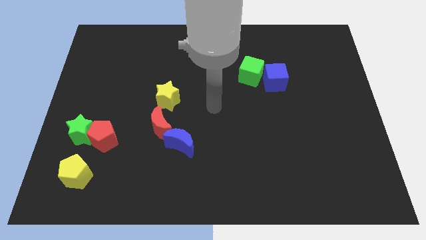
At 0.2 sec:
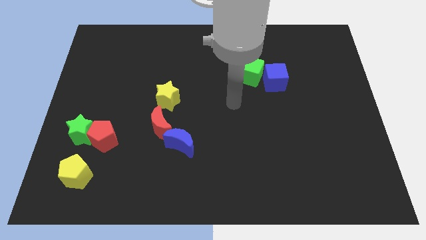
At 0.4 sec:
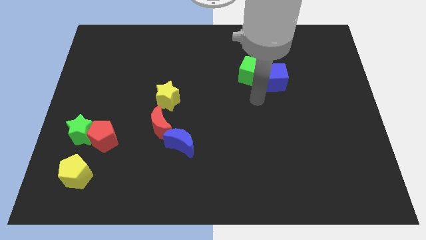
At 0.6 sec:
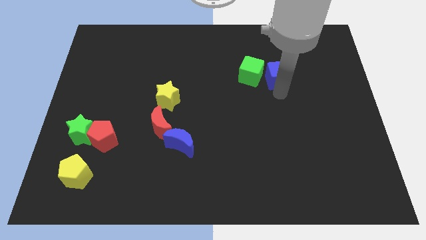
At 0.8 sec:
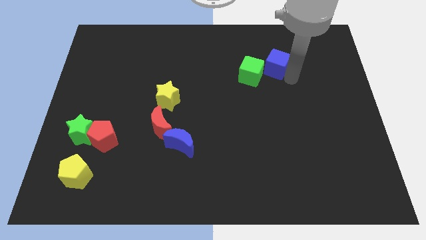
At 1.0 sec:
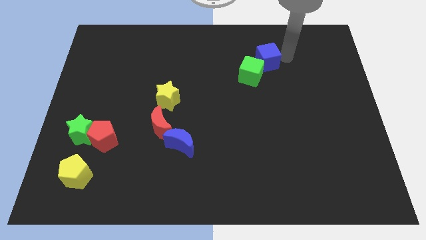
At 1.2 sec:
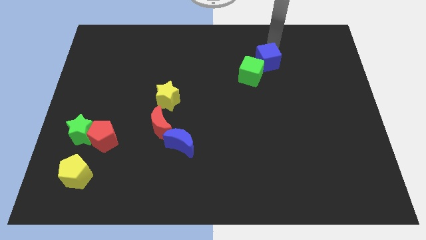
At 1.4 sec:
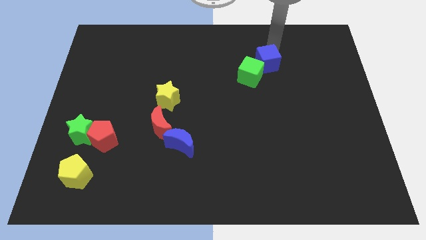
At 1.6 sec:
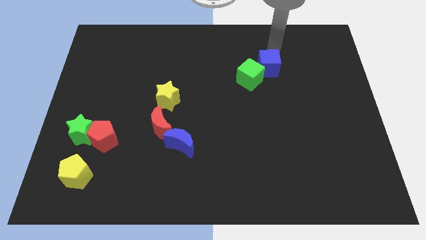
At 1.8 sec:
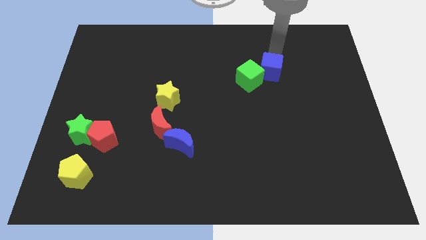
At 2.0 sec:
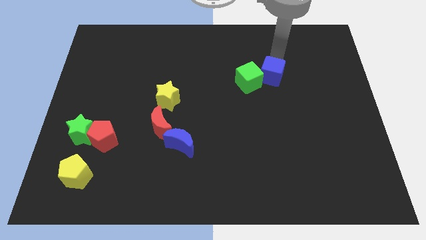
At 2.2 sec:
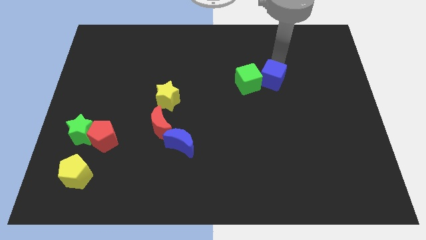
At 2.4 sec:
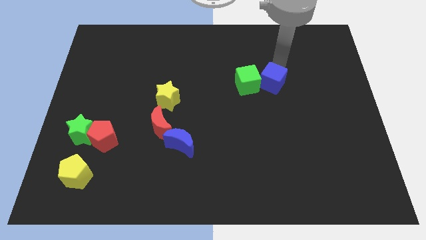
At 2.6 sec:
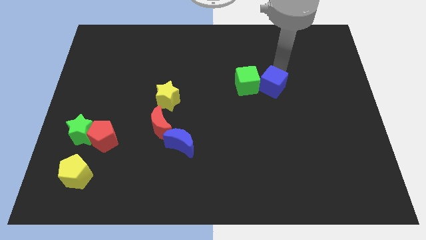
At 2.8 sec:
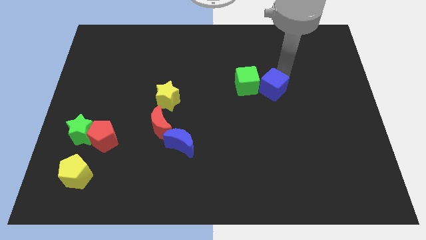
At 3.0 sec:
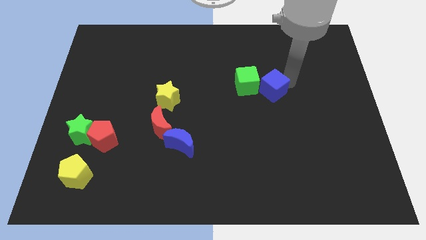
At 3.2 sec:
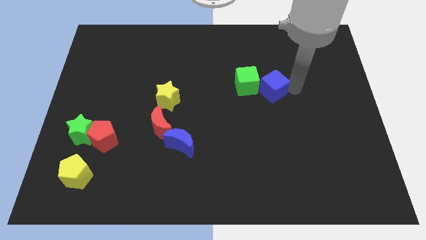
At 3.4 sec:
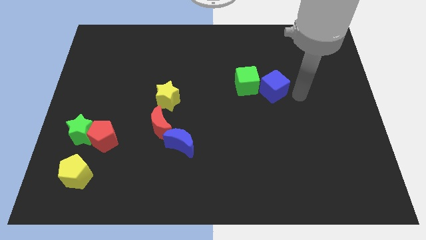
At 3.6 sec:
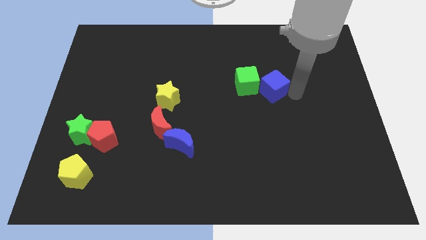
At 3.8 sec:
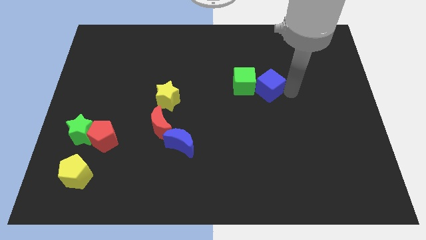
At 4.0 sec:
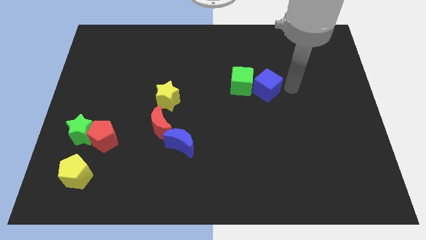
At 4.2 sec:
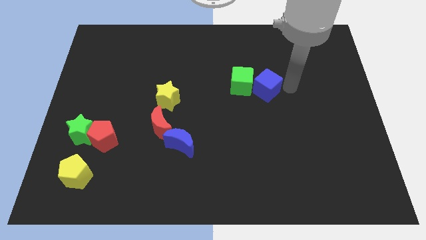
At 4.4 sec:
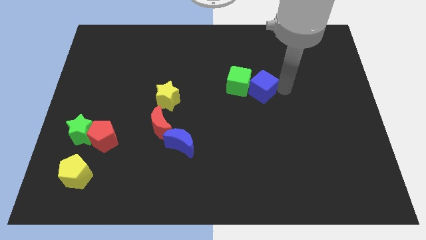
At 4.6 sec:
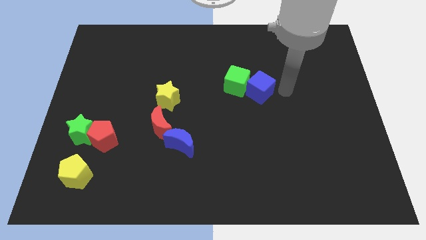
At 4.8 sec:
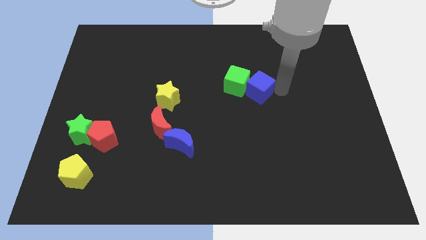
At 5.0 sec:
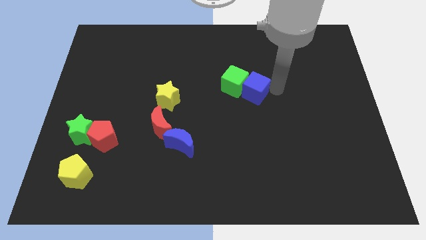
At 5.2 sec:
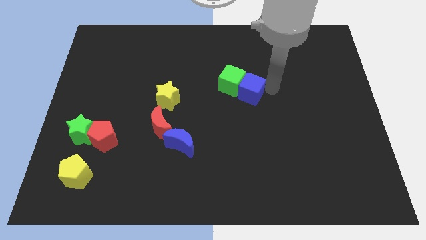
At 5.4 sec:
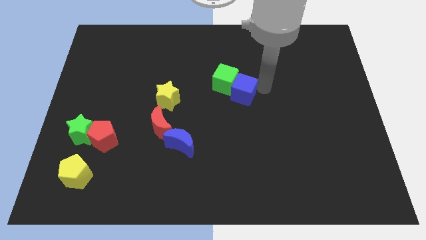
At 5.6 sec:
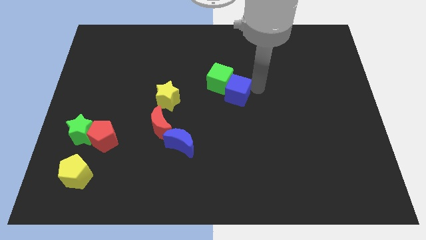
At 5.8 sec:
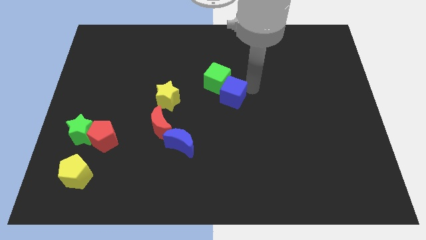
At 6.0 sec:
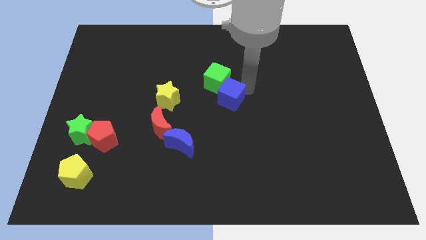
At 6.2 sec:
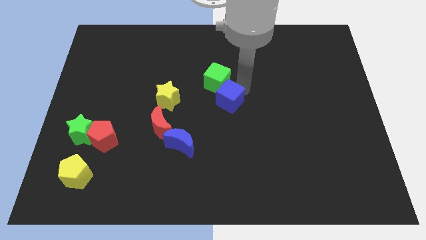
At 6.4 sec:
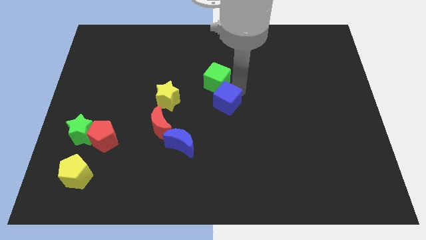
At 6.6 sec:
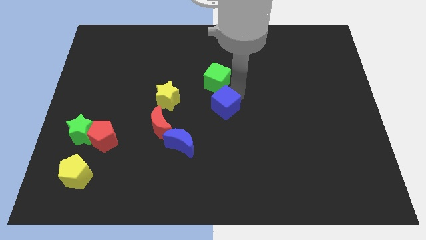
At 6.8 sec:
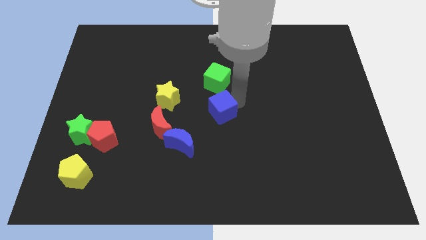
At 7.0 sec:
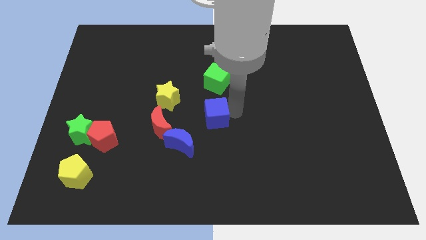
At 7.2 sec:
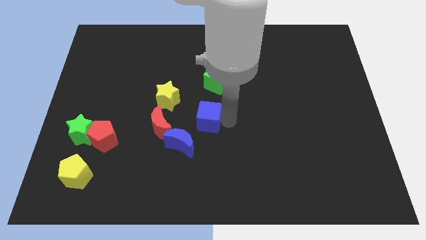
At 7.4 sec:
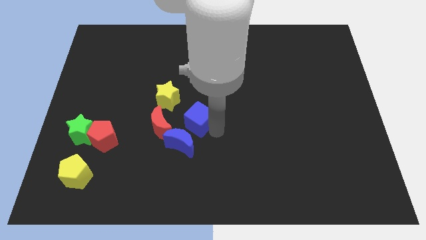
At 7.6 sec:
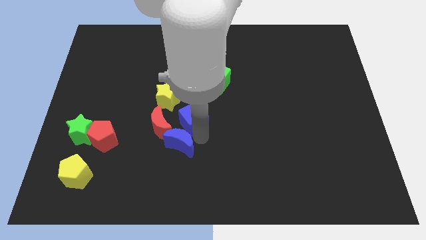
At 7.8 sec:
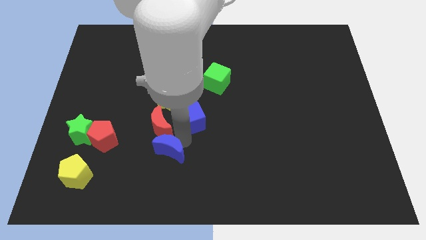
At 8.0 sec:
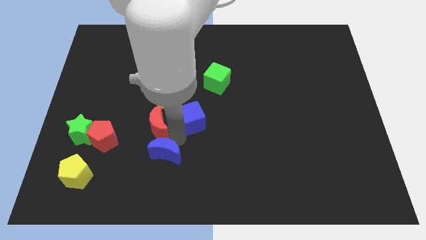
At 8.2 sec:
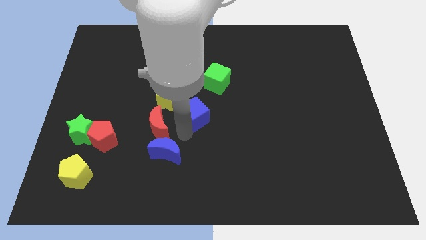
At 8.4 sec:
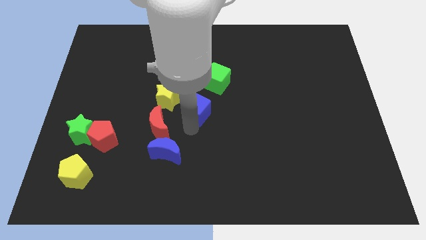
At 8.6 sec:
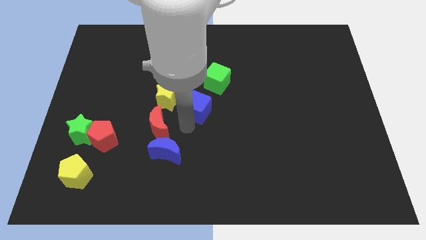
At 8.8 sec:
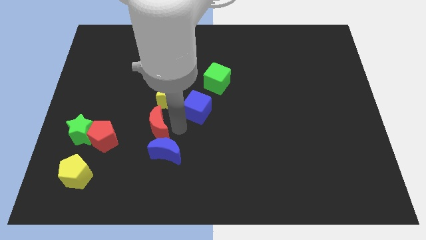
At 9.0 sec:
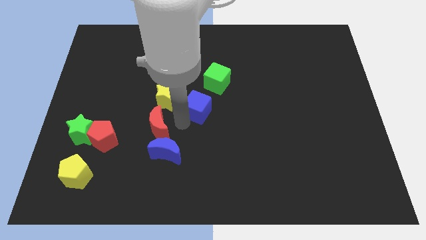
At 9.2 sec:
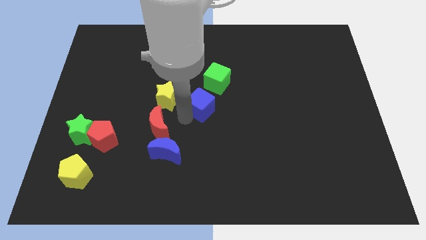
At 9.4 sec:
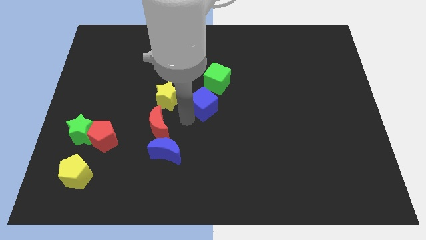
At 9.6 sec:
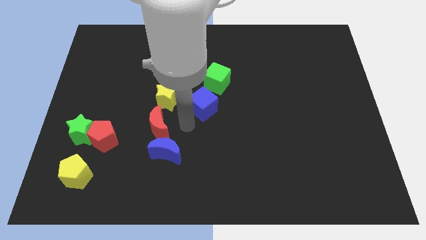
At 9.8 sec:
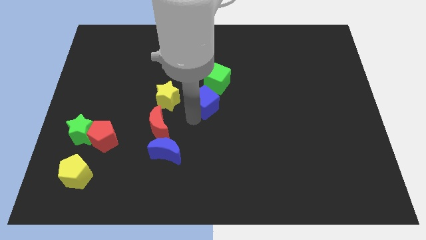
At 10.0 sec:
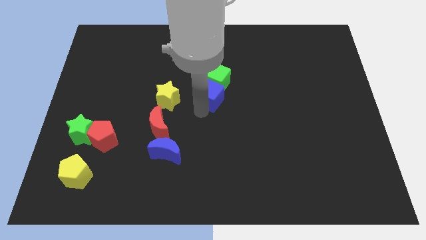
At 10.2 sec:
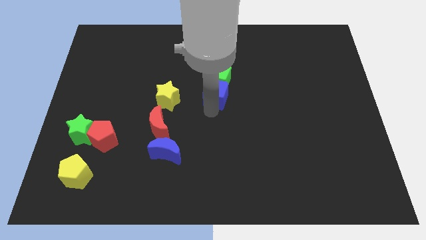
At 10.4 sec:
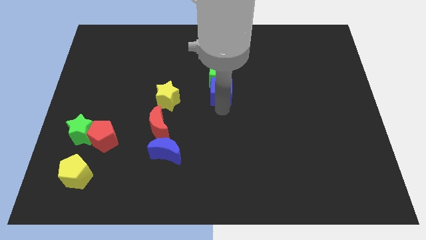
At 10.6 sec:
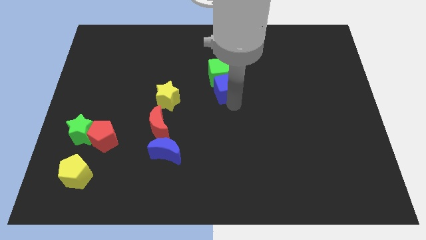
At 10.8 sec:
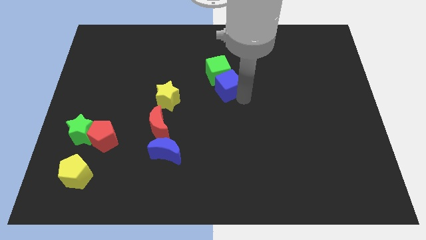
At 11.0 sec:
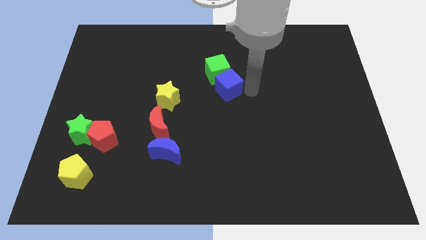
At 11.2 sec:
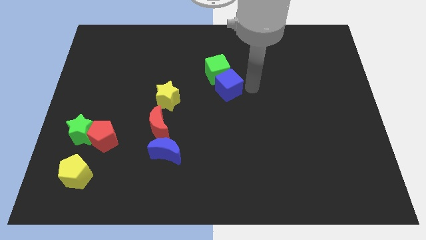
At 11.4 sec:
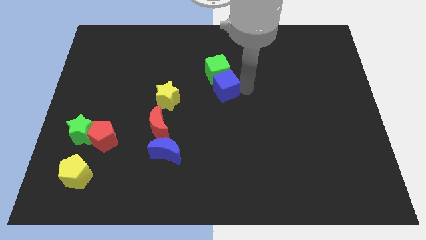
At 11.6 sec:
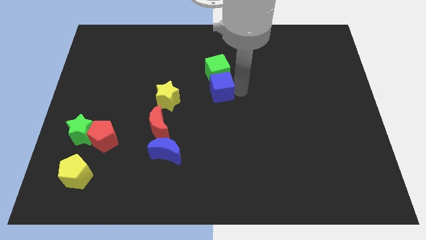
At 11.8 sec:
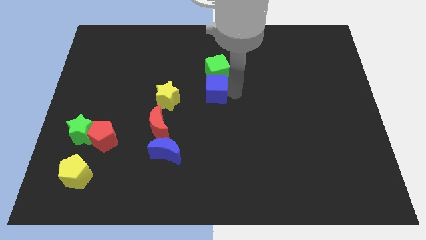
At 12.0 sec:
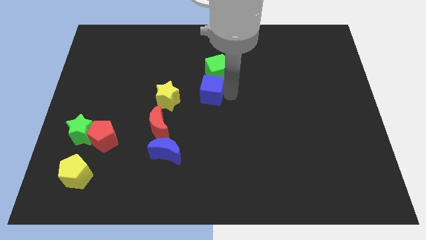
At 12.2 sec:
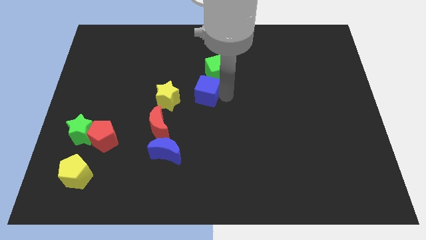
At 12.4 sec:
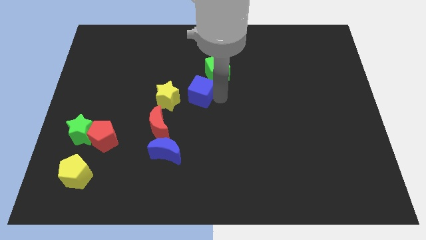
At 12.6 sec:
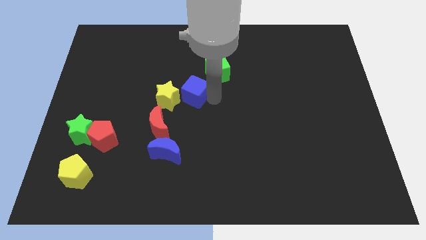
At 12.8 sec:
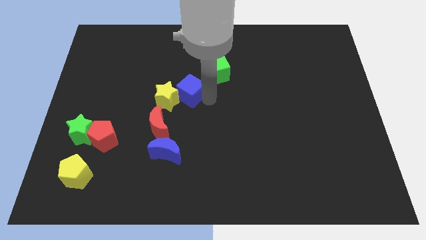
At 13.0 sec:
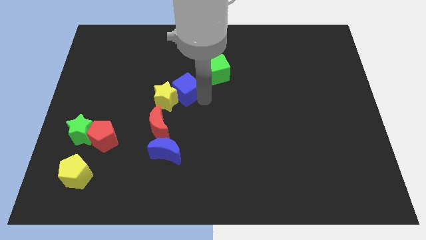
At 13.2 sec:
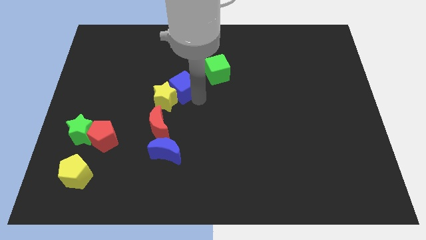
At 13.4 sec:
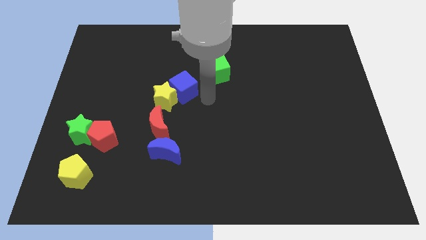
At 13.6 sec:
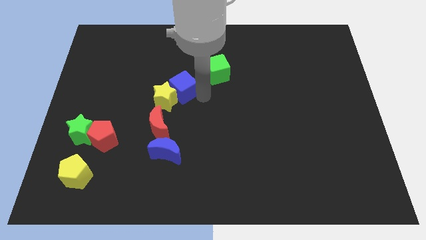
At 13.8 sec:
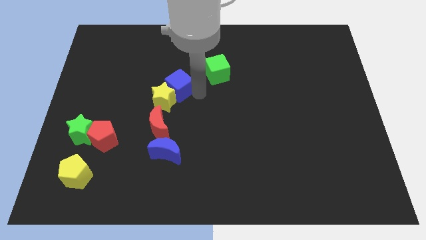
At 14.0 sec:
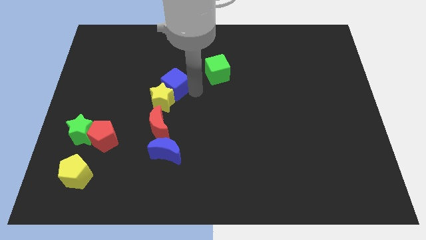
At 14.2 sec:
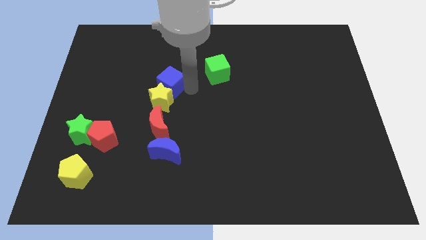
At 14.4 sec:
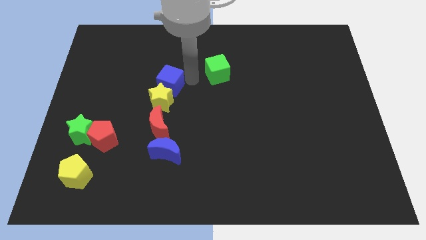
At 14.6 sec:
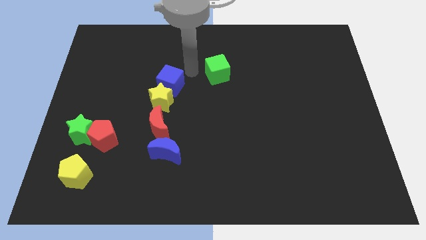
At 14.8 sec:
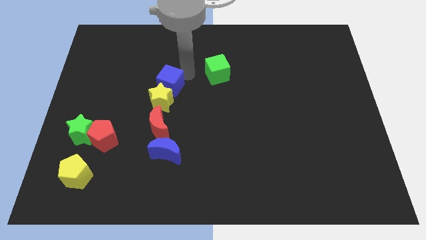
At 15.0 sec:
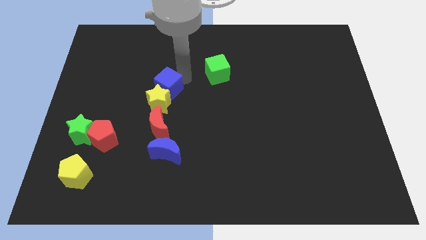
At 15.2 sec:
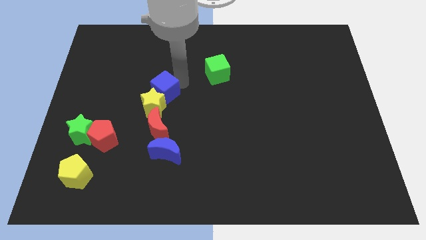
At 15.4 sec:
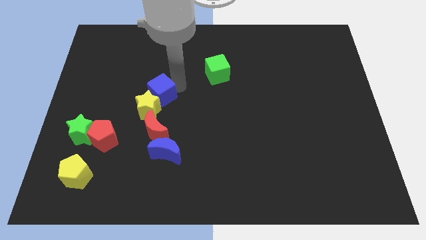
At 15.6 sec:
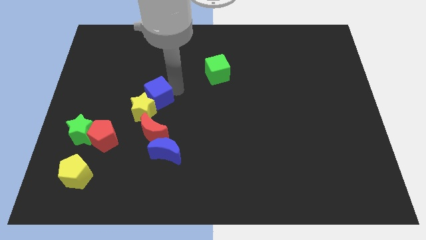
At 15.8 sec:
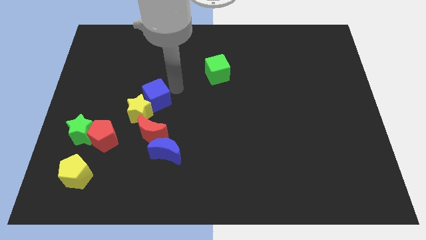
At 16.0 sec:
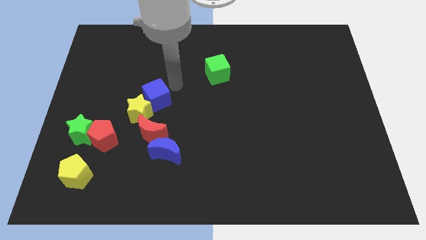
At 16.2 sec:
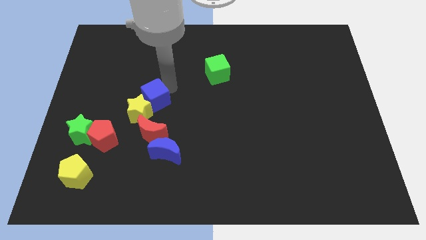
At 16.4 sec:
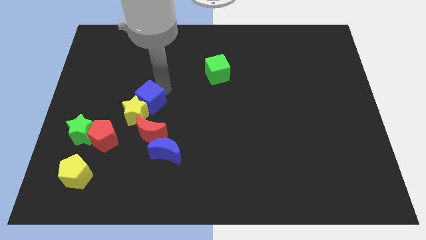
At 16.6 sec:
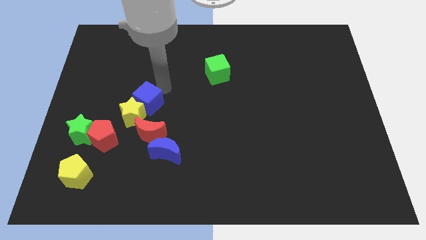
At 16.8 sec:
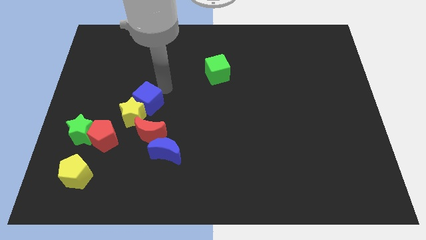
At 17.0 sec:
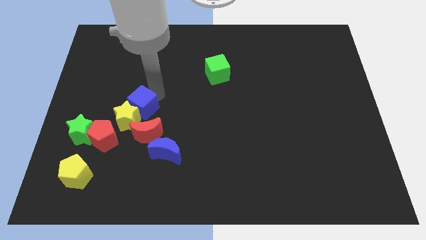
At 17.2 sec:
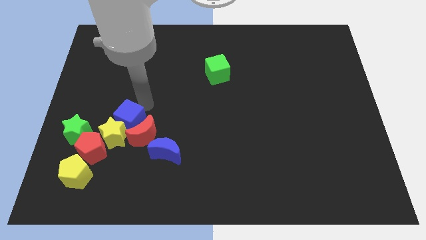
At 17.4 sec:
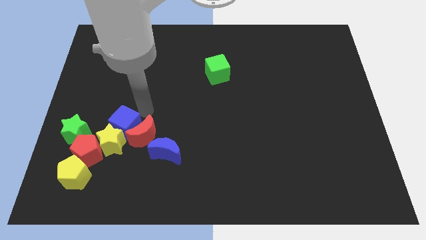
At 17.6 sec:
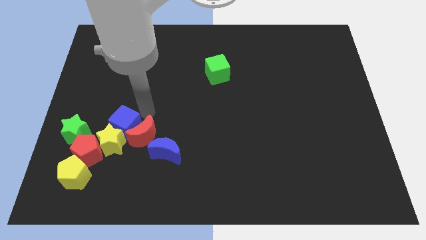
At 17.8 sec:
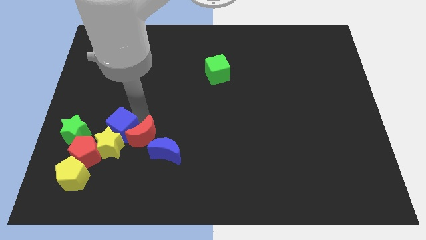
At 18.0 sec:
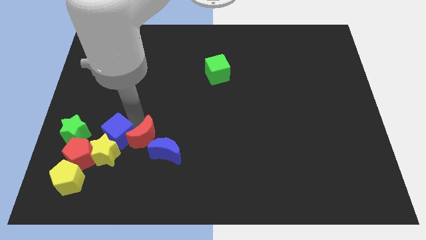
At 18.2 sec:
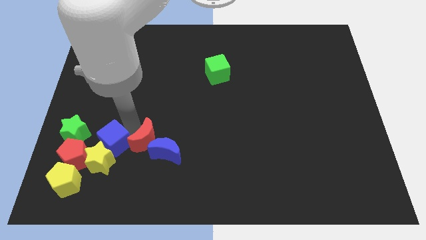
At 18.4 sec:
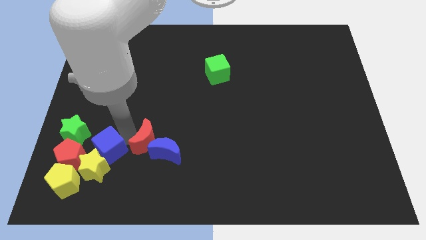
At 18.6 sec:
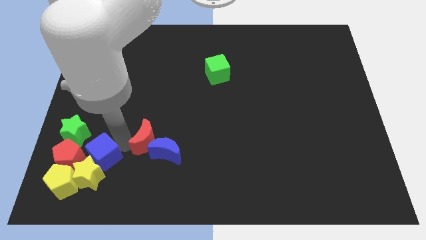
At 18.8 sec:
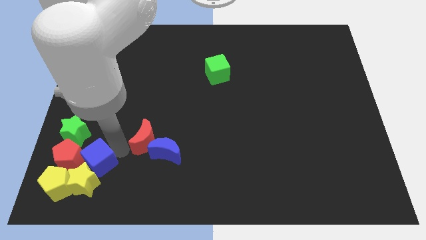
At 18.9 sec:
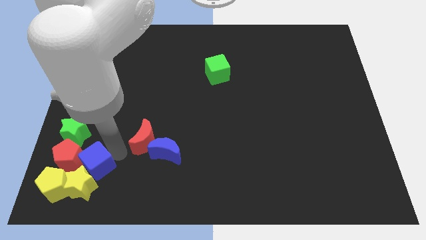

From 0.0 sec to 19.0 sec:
push the blue cube towards the red pentagon
